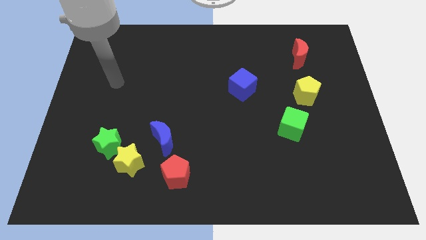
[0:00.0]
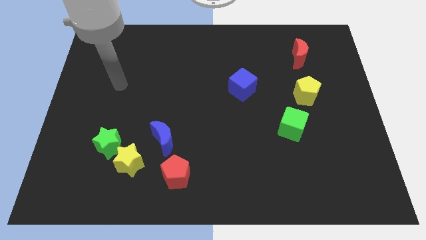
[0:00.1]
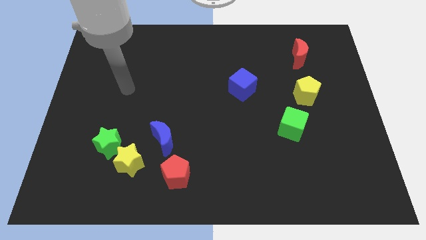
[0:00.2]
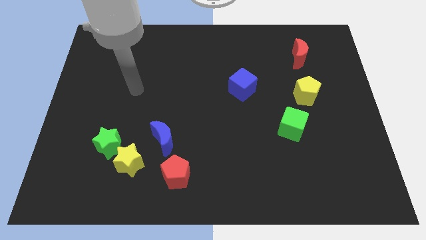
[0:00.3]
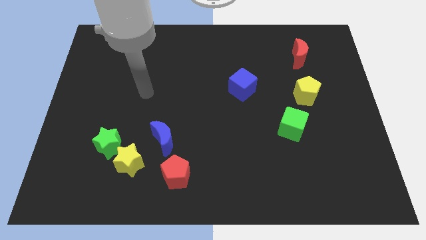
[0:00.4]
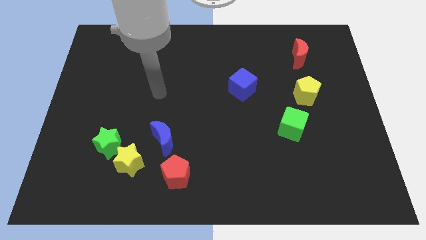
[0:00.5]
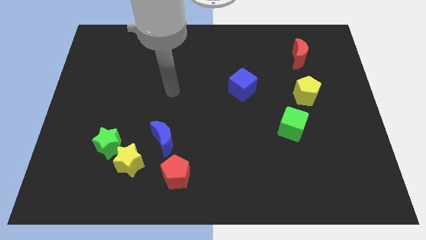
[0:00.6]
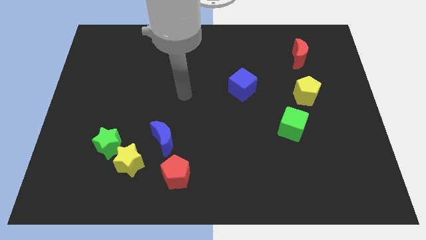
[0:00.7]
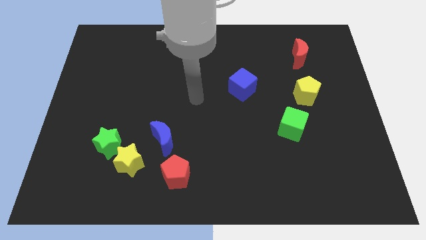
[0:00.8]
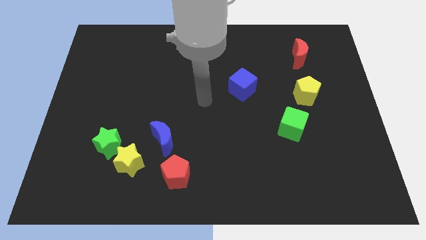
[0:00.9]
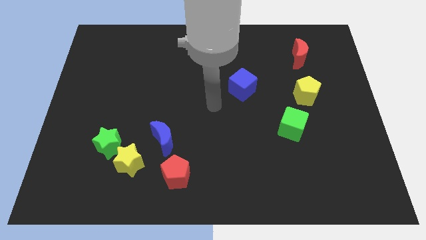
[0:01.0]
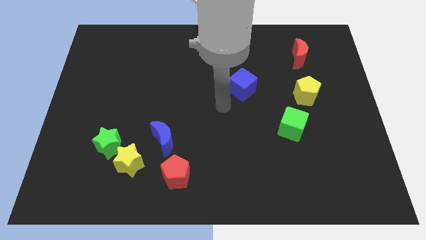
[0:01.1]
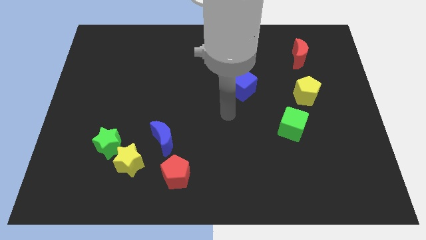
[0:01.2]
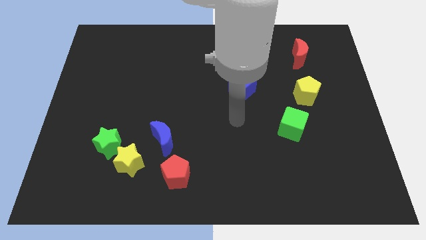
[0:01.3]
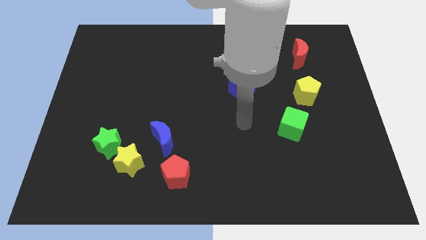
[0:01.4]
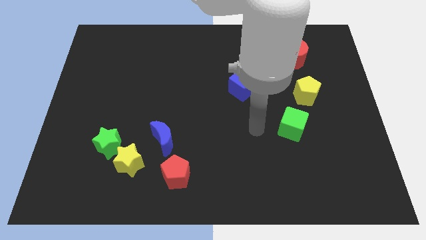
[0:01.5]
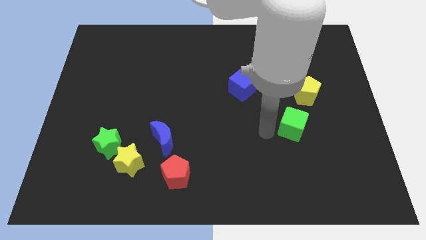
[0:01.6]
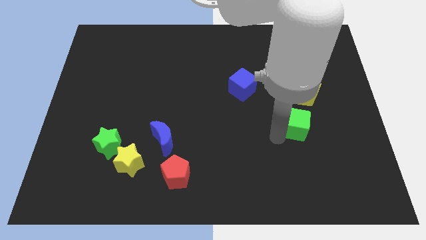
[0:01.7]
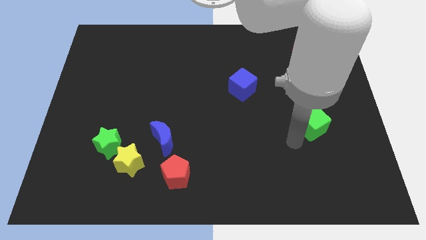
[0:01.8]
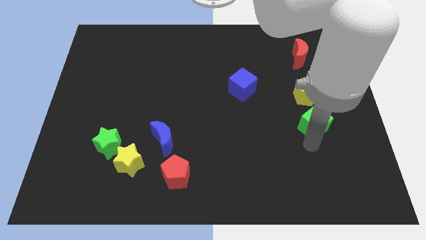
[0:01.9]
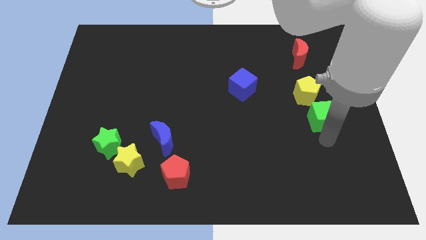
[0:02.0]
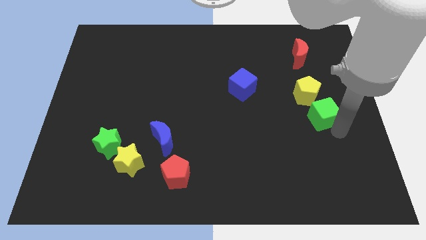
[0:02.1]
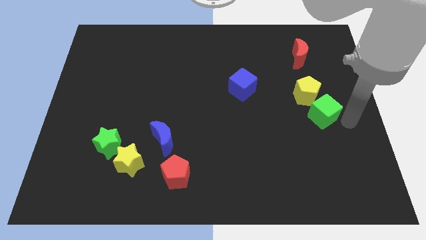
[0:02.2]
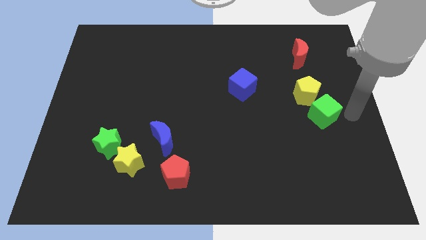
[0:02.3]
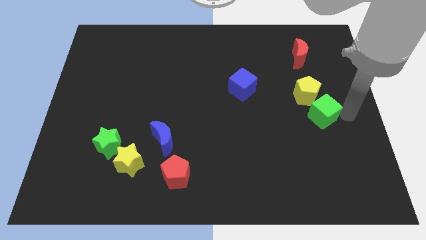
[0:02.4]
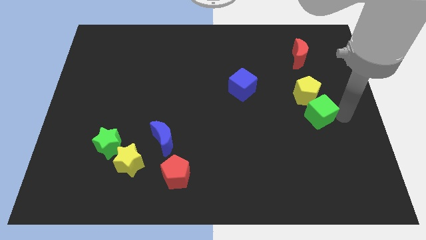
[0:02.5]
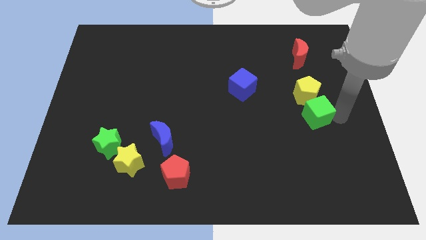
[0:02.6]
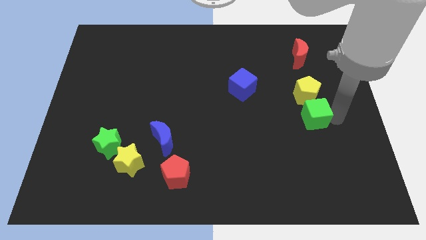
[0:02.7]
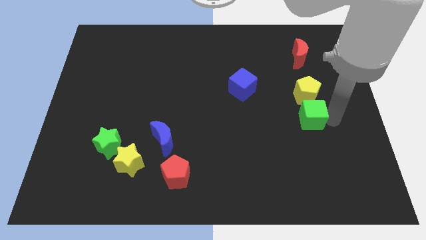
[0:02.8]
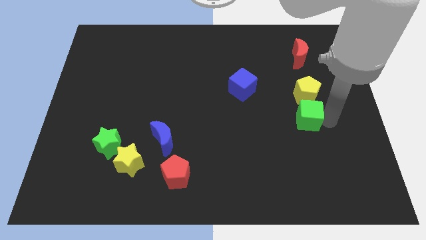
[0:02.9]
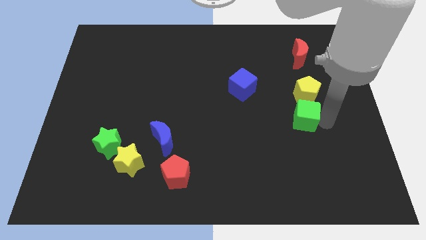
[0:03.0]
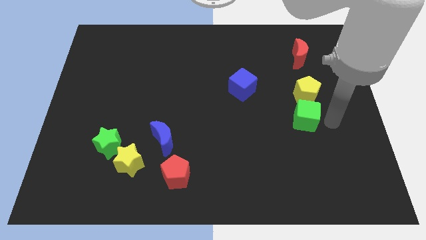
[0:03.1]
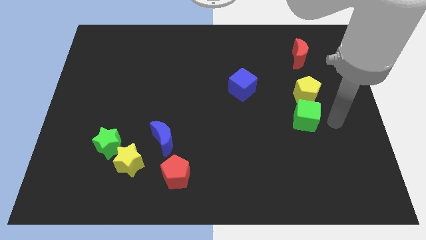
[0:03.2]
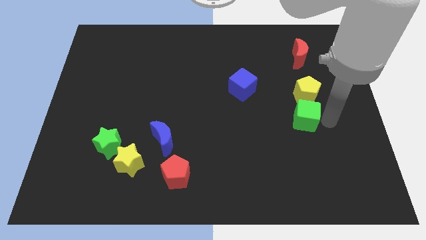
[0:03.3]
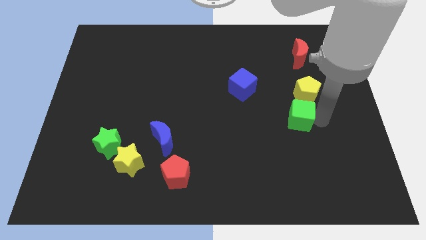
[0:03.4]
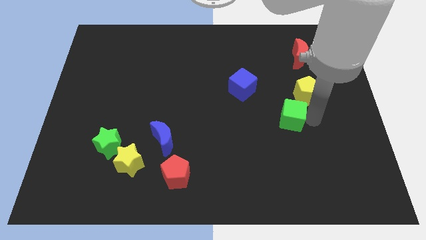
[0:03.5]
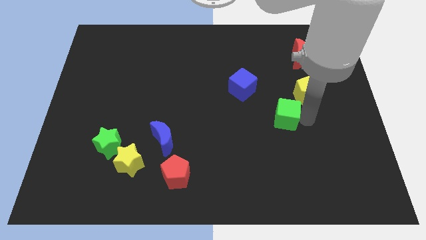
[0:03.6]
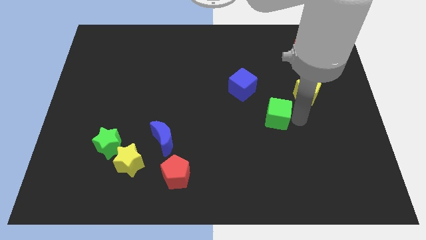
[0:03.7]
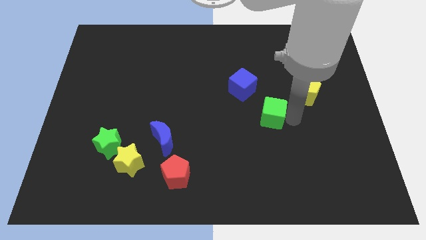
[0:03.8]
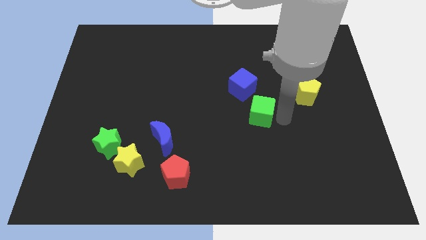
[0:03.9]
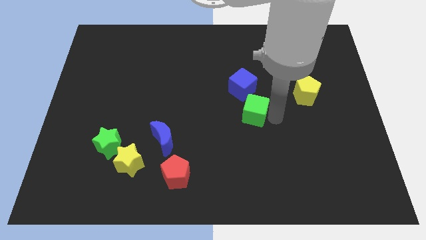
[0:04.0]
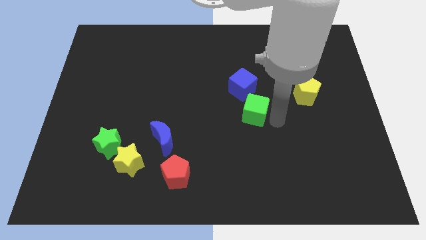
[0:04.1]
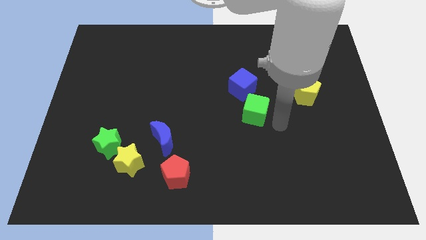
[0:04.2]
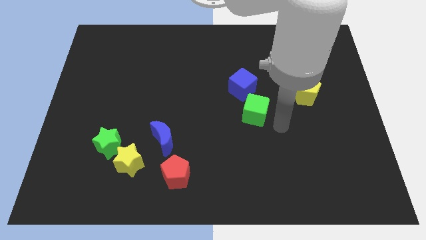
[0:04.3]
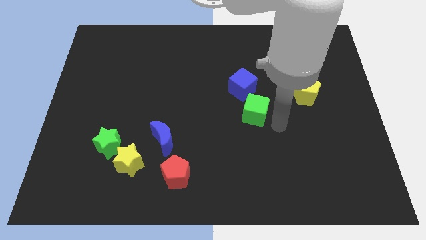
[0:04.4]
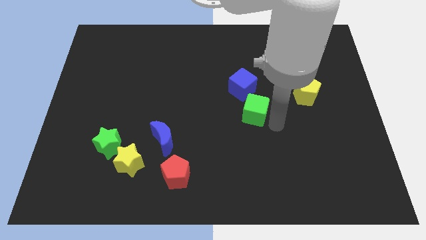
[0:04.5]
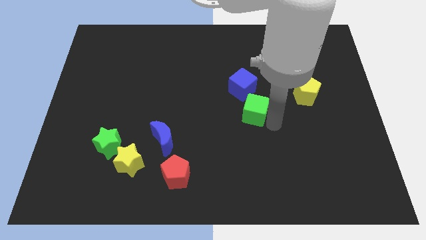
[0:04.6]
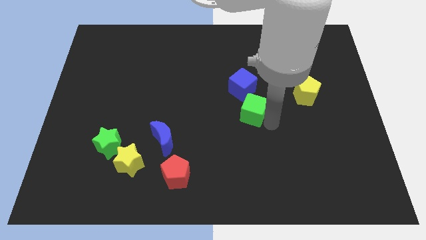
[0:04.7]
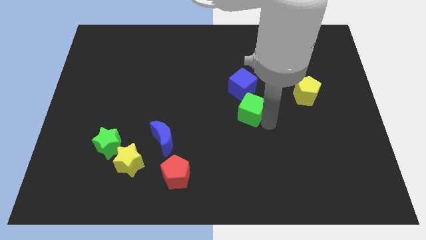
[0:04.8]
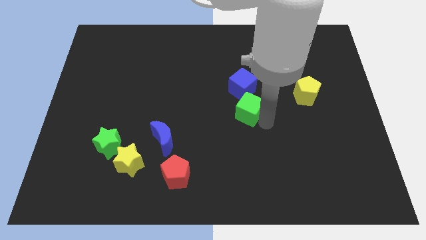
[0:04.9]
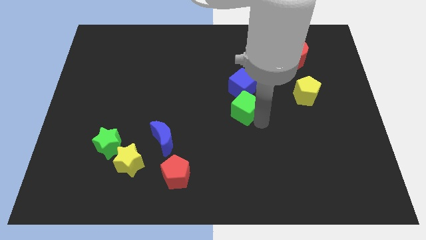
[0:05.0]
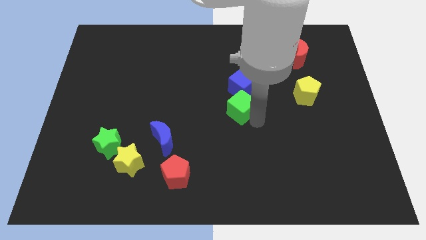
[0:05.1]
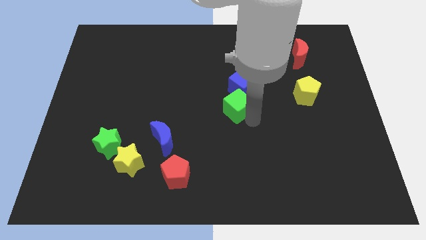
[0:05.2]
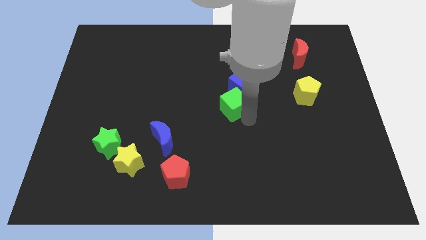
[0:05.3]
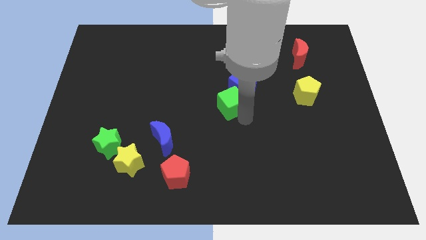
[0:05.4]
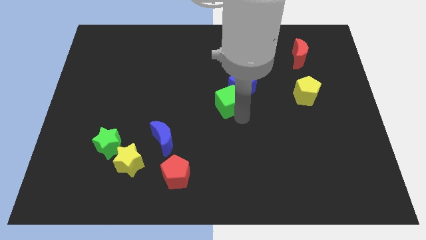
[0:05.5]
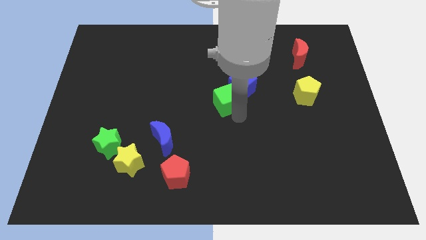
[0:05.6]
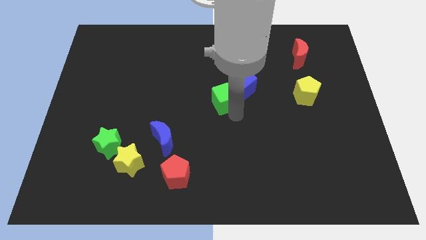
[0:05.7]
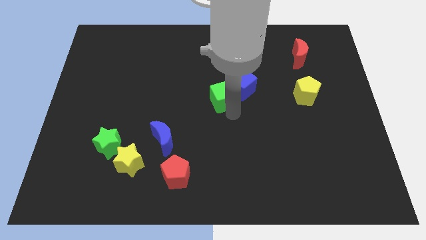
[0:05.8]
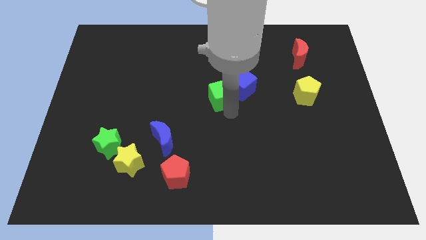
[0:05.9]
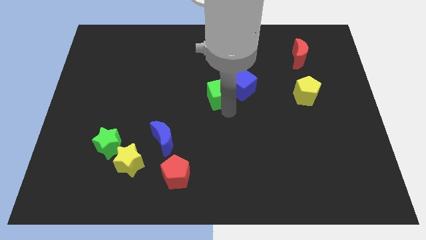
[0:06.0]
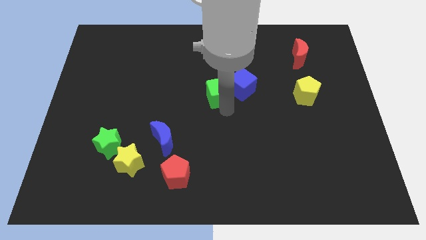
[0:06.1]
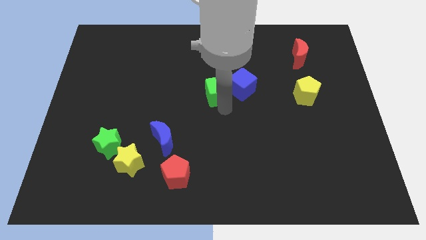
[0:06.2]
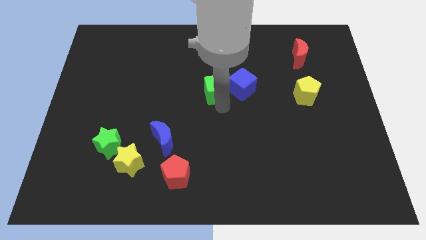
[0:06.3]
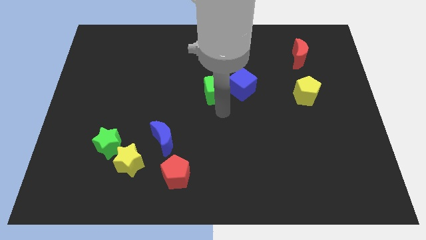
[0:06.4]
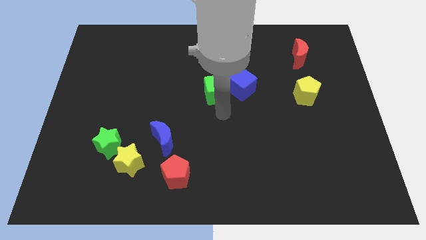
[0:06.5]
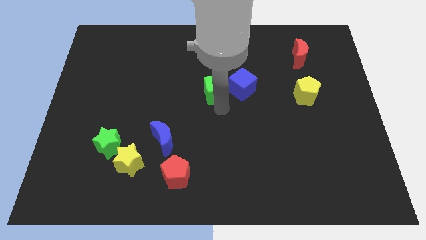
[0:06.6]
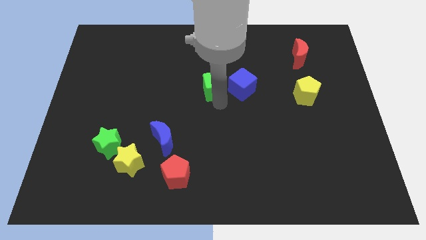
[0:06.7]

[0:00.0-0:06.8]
slide the green cube upwards and left

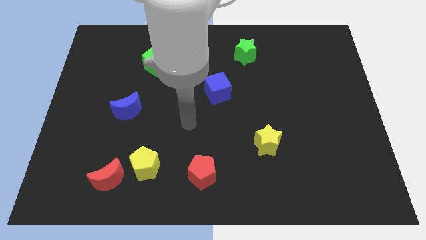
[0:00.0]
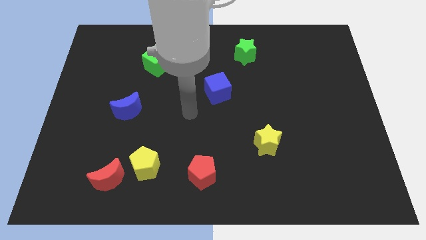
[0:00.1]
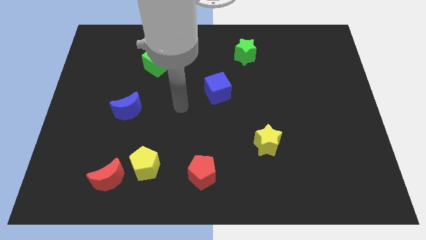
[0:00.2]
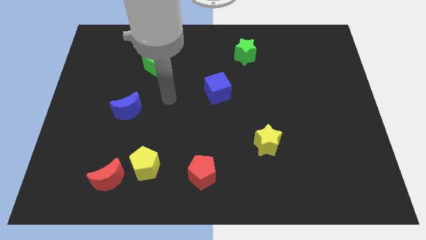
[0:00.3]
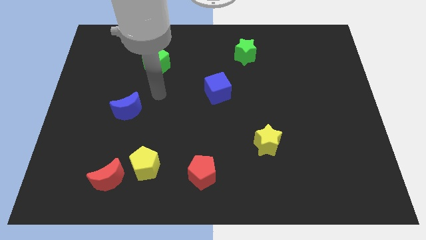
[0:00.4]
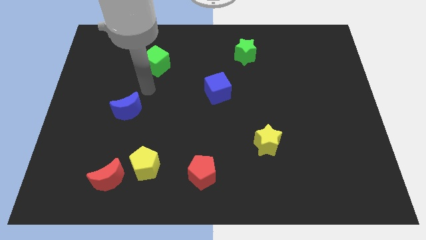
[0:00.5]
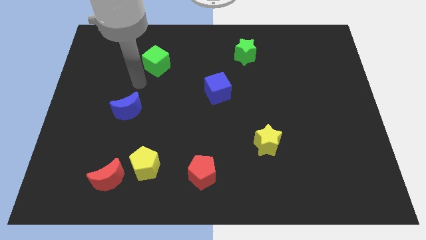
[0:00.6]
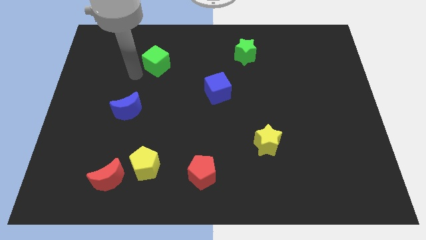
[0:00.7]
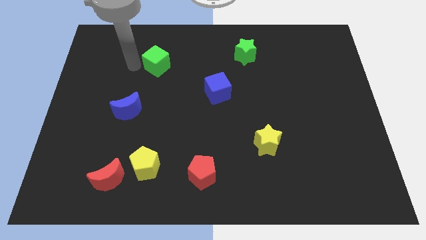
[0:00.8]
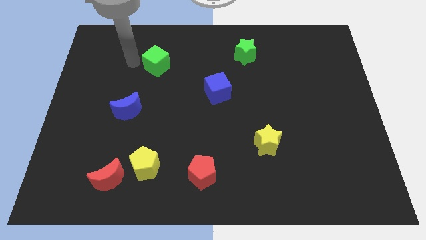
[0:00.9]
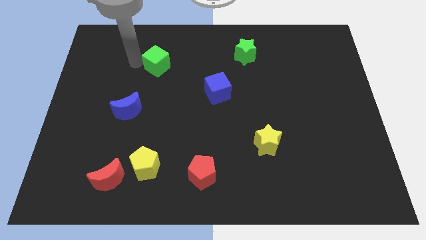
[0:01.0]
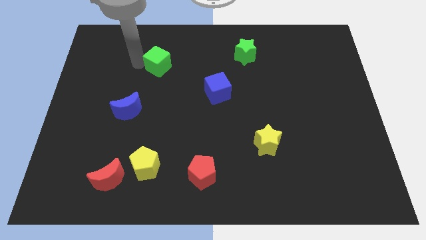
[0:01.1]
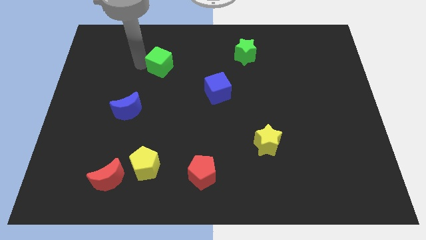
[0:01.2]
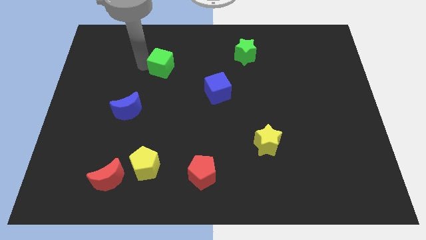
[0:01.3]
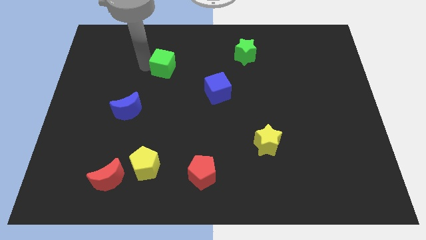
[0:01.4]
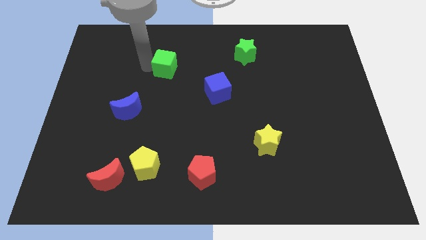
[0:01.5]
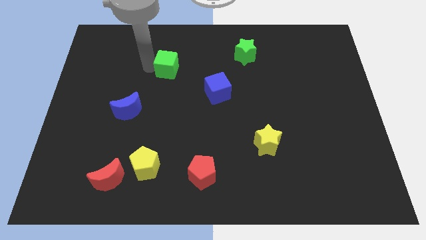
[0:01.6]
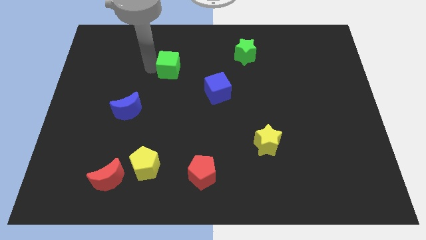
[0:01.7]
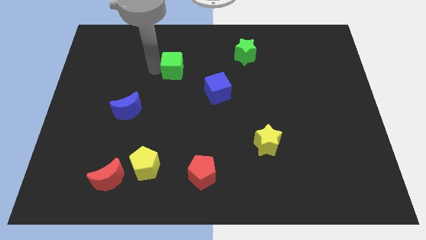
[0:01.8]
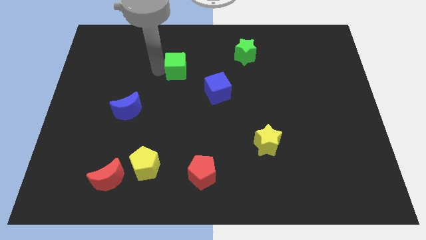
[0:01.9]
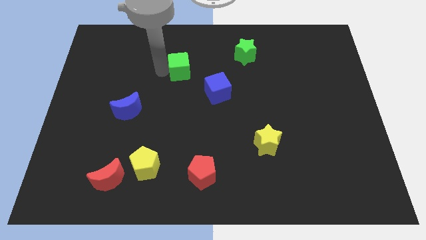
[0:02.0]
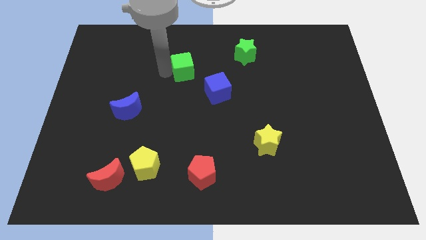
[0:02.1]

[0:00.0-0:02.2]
slightly move the green cube to the right

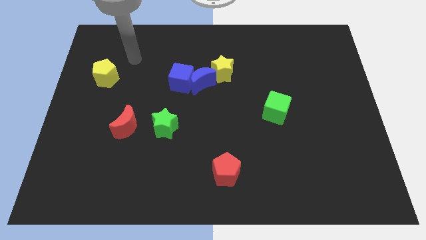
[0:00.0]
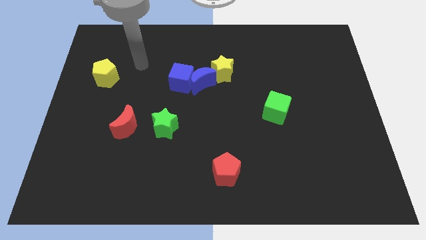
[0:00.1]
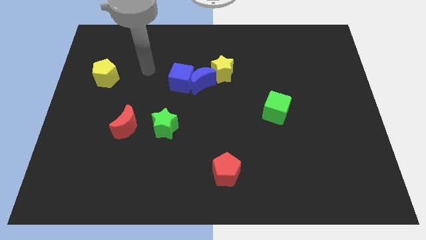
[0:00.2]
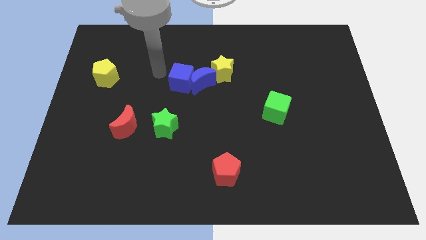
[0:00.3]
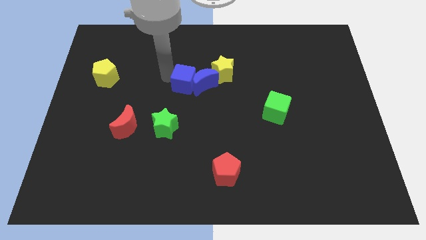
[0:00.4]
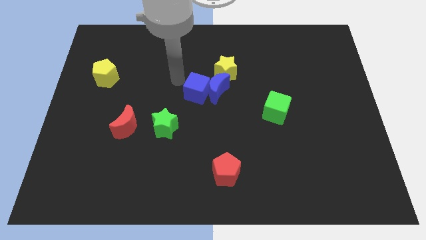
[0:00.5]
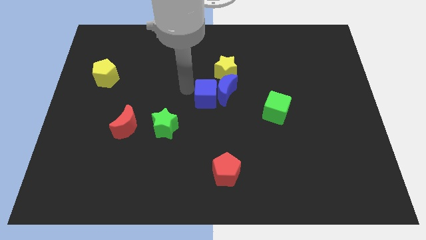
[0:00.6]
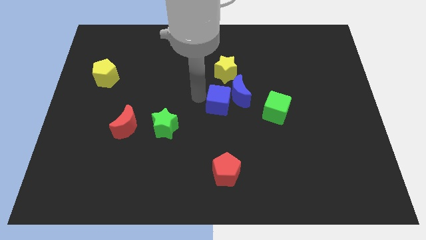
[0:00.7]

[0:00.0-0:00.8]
push the blue moon a little bit right
